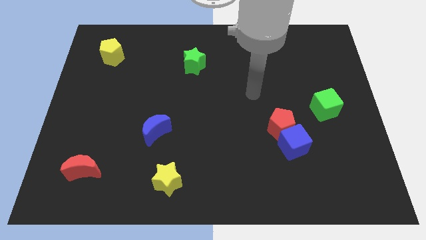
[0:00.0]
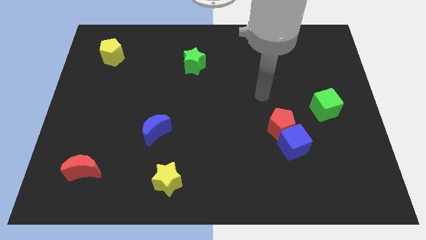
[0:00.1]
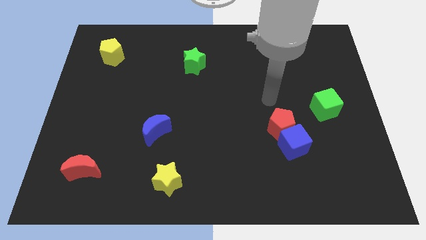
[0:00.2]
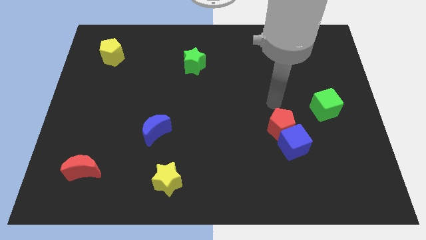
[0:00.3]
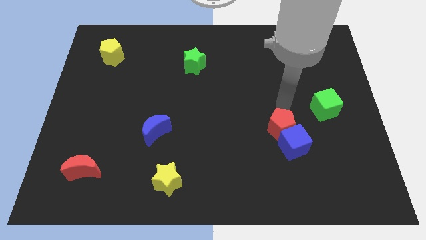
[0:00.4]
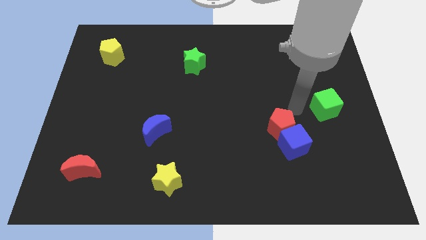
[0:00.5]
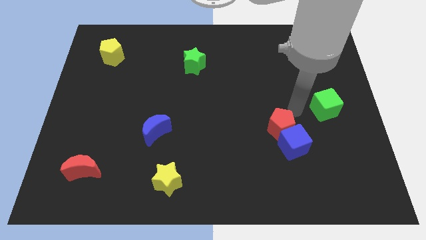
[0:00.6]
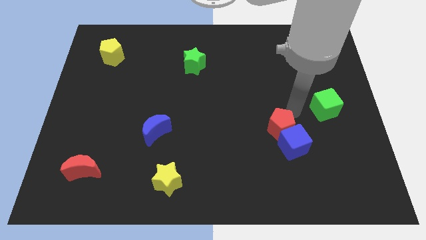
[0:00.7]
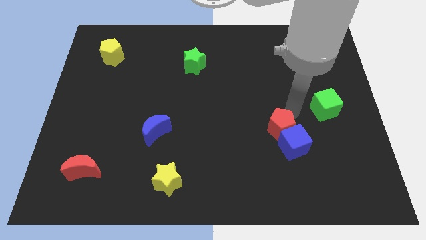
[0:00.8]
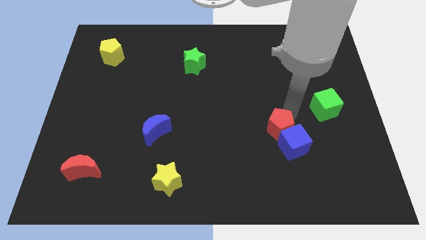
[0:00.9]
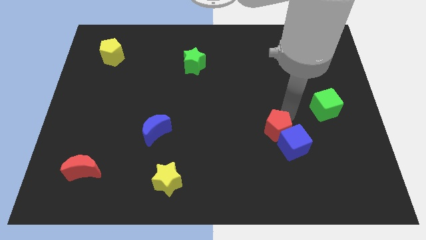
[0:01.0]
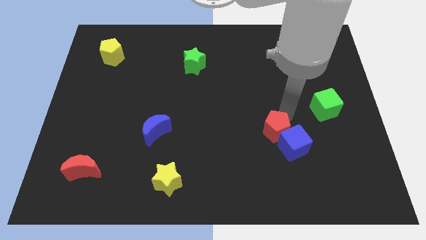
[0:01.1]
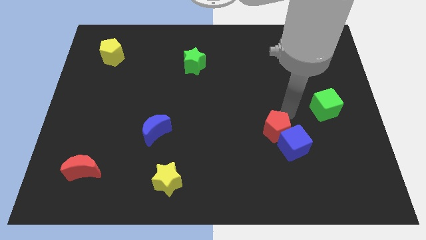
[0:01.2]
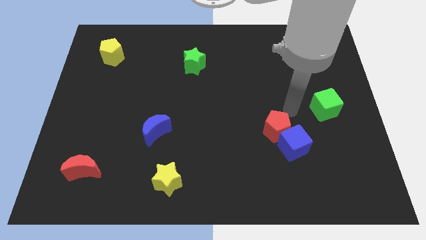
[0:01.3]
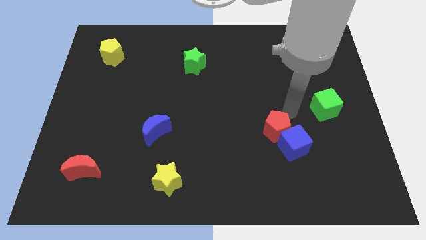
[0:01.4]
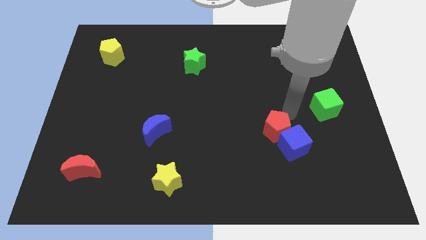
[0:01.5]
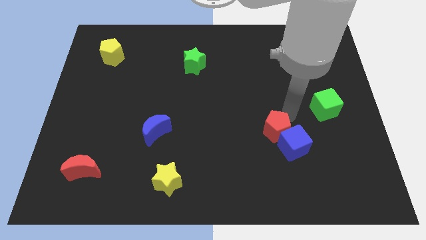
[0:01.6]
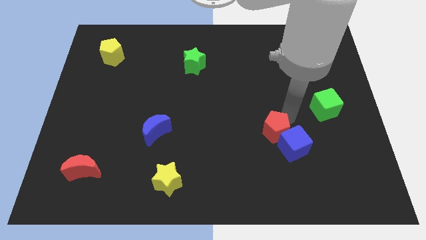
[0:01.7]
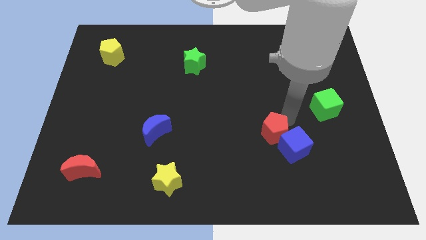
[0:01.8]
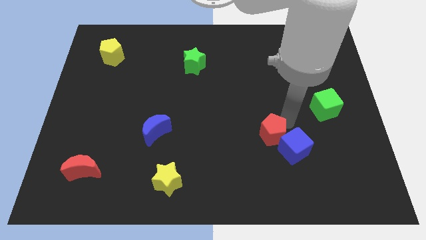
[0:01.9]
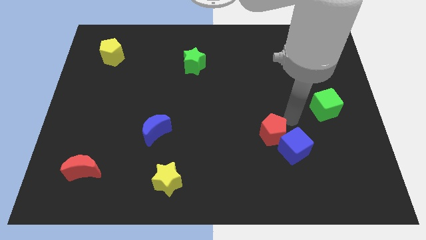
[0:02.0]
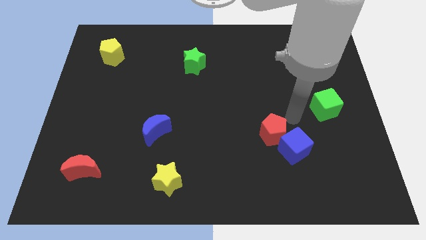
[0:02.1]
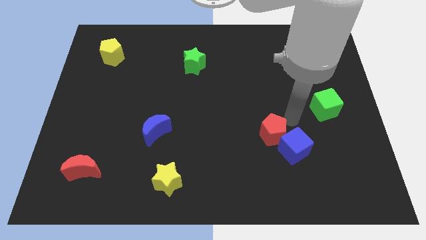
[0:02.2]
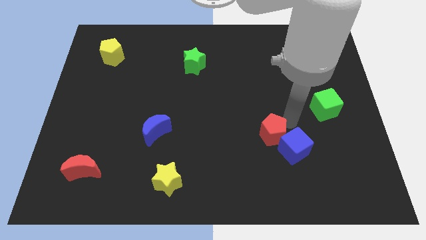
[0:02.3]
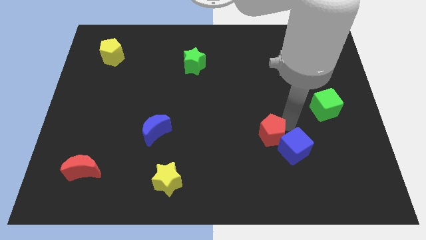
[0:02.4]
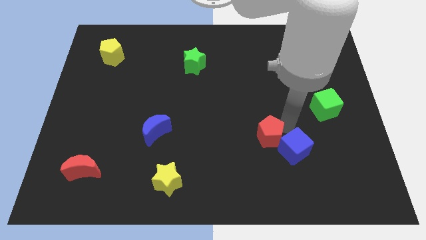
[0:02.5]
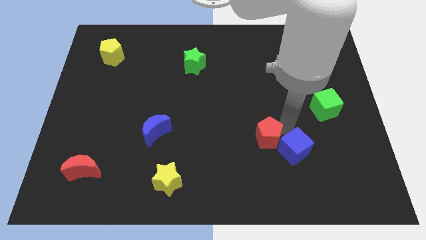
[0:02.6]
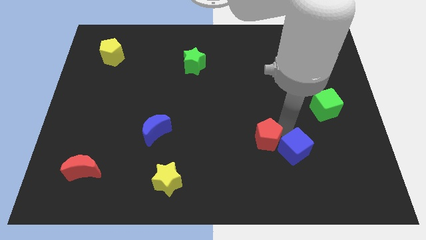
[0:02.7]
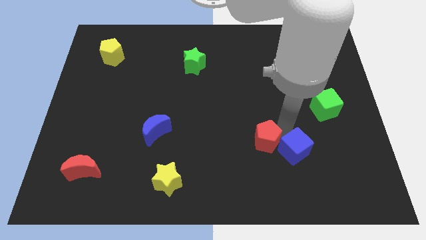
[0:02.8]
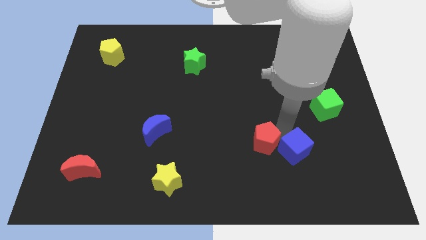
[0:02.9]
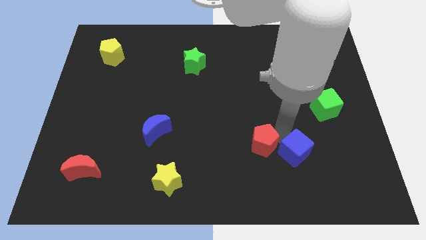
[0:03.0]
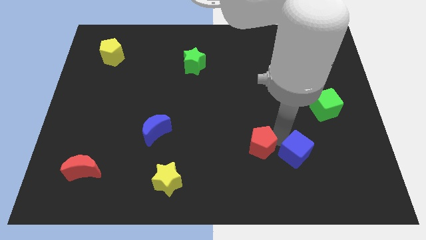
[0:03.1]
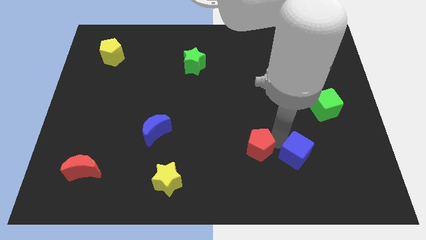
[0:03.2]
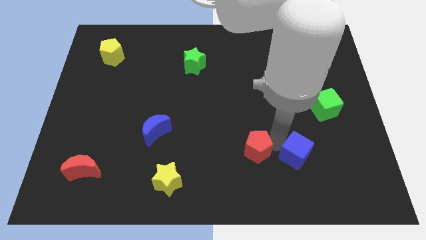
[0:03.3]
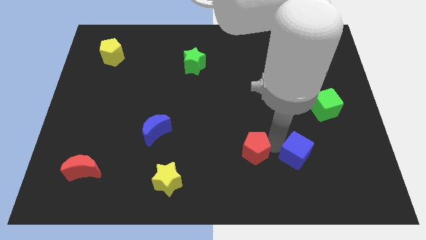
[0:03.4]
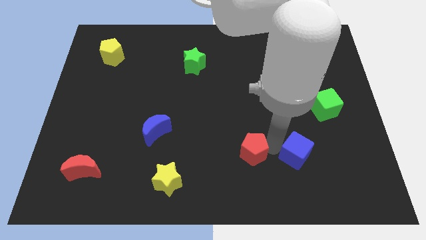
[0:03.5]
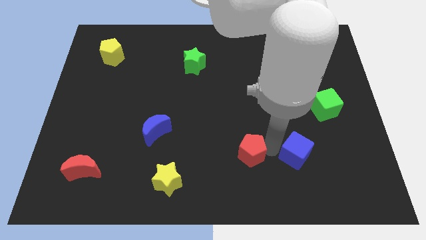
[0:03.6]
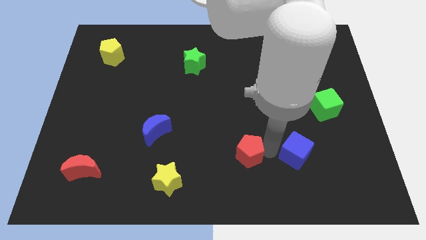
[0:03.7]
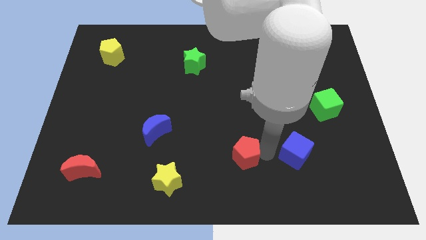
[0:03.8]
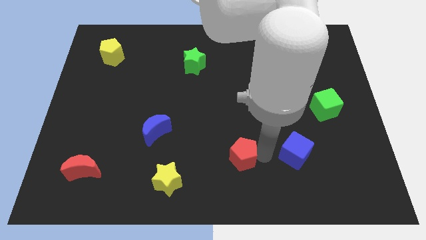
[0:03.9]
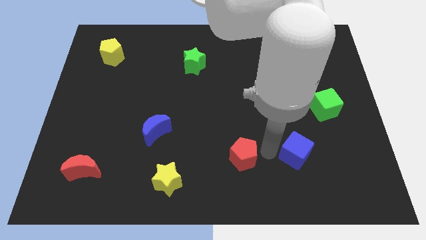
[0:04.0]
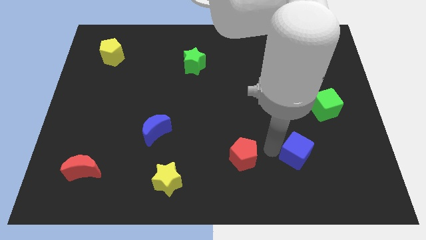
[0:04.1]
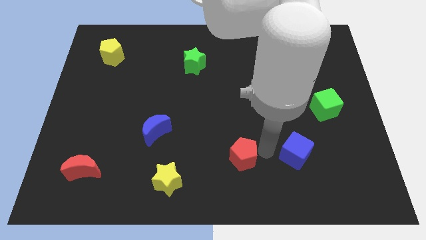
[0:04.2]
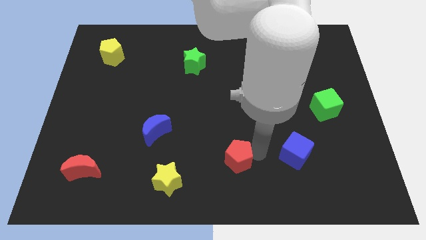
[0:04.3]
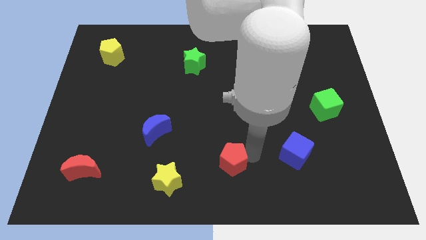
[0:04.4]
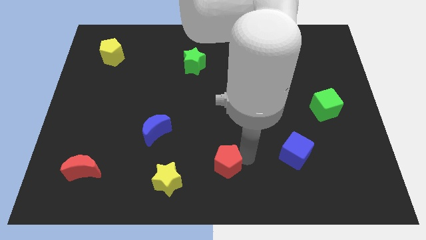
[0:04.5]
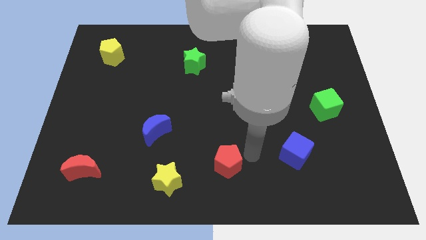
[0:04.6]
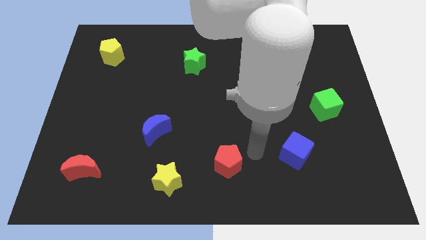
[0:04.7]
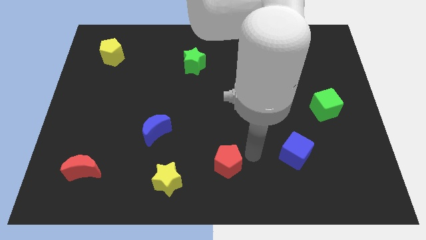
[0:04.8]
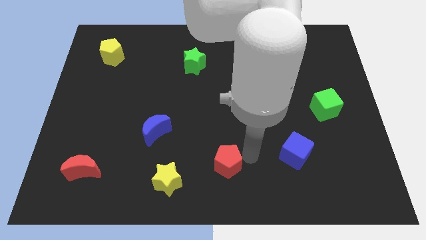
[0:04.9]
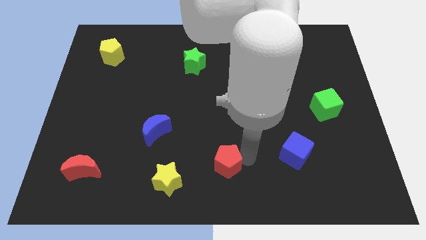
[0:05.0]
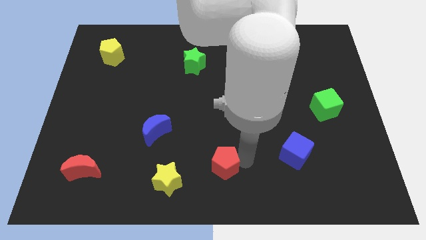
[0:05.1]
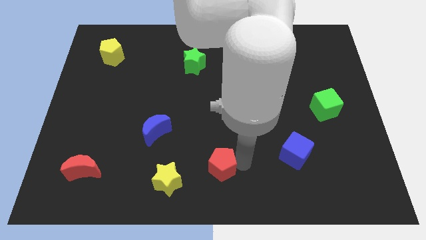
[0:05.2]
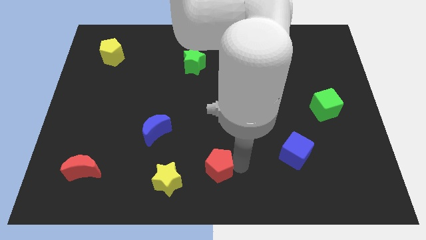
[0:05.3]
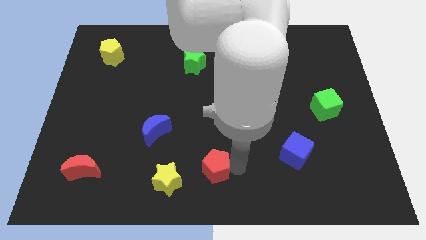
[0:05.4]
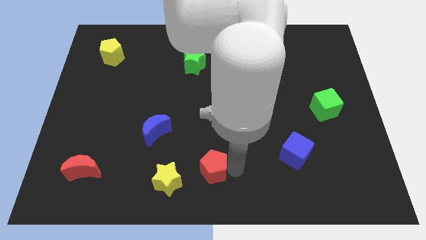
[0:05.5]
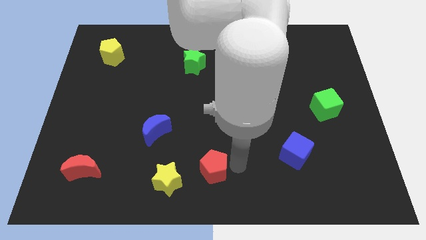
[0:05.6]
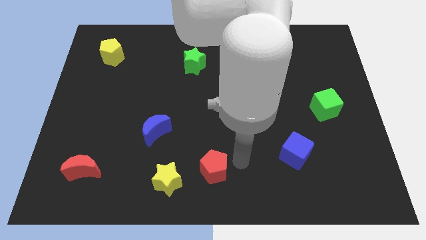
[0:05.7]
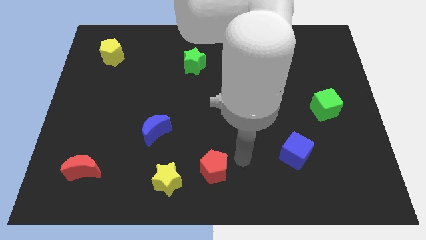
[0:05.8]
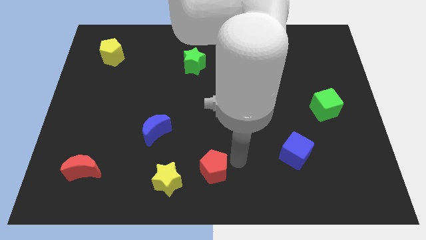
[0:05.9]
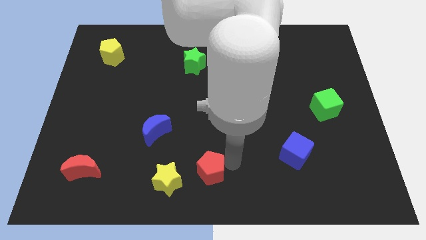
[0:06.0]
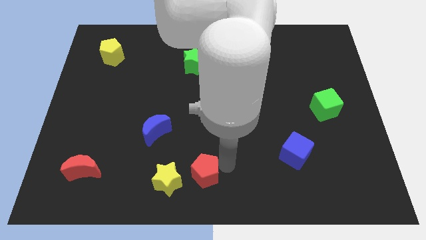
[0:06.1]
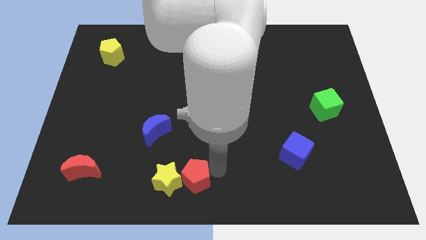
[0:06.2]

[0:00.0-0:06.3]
slide the red pentagon next to the yellow star

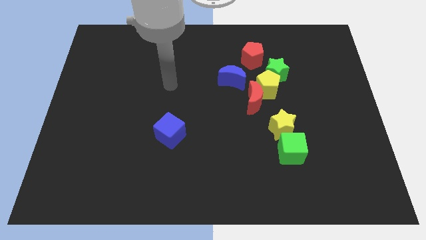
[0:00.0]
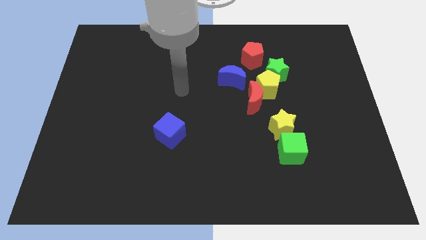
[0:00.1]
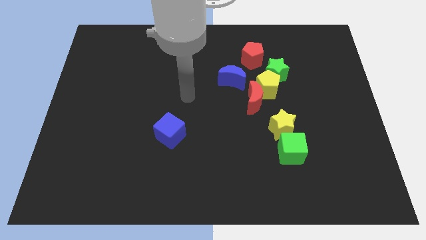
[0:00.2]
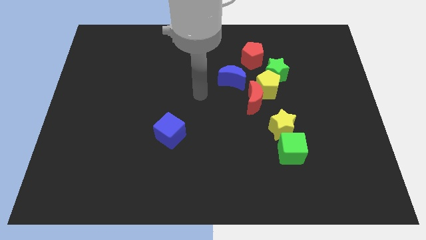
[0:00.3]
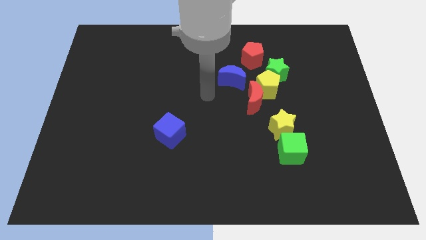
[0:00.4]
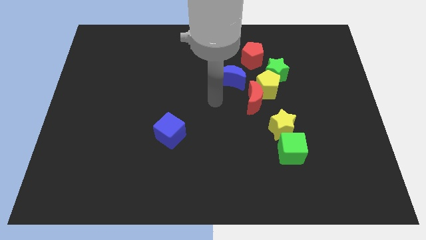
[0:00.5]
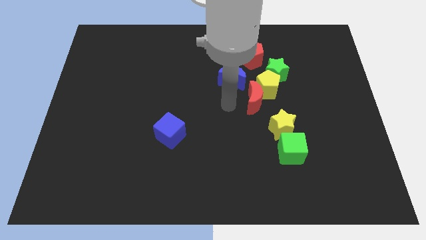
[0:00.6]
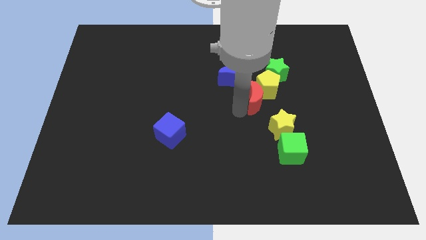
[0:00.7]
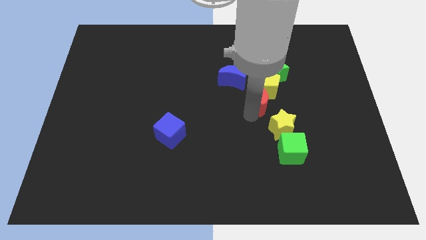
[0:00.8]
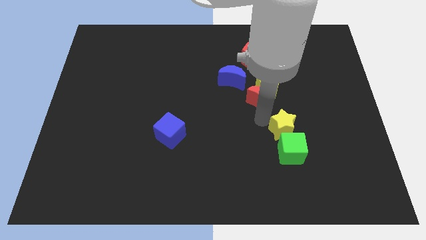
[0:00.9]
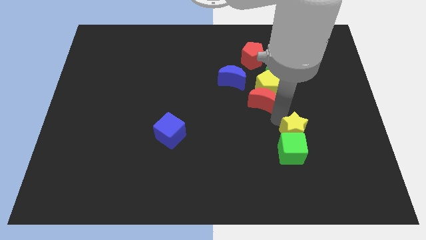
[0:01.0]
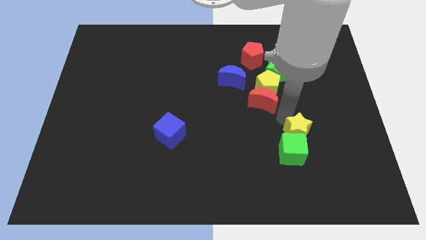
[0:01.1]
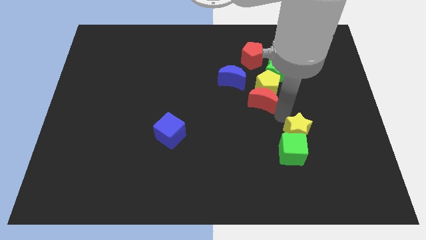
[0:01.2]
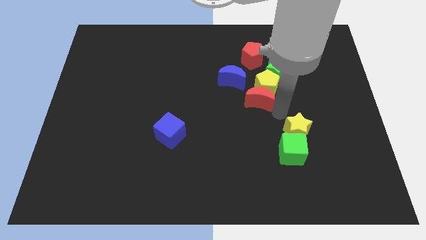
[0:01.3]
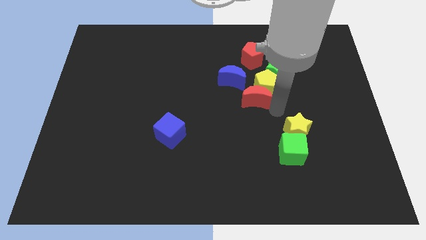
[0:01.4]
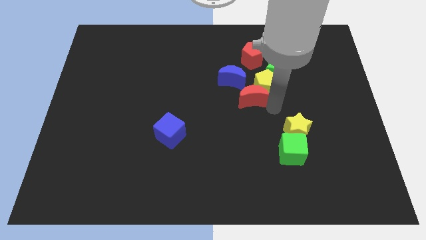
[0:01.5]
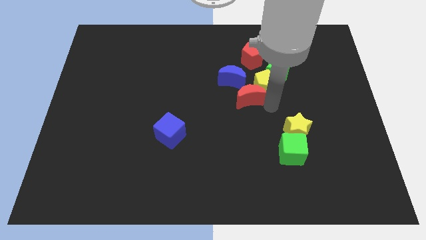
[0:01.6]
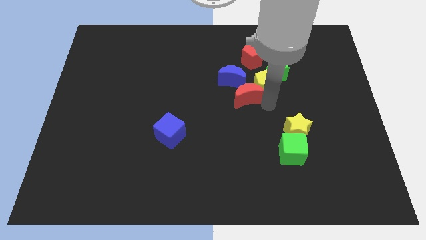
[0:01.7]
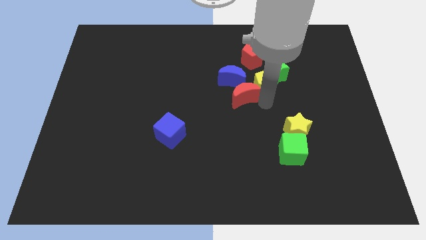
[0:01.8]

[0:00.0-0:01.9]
move the red moon to the blue moon
